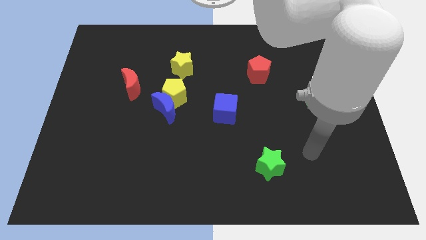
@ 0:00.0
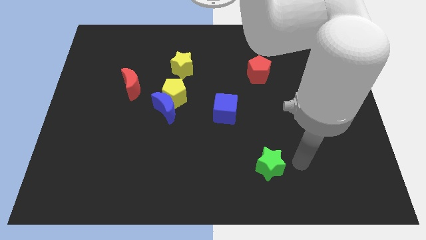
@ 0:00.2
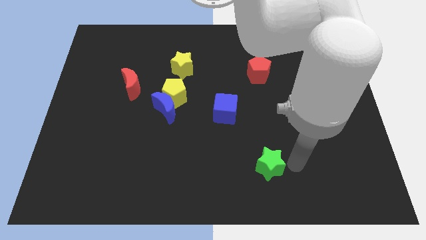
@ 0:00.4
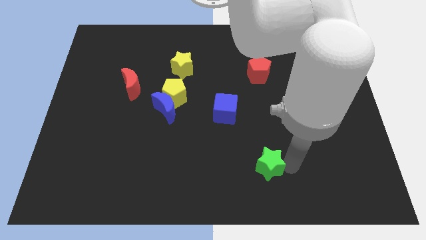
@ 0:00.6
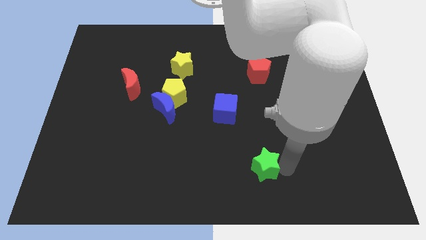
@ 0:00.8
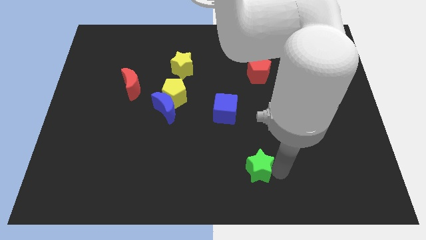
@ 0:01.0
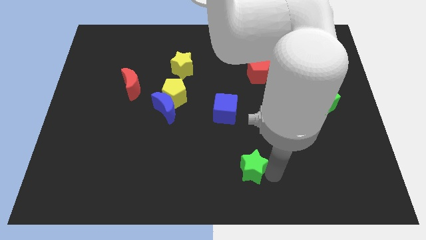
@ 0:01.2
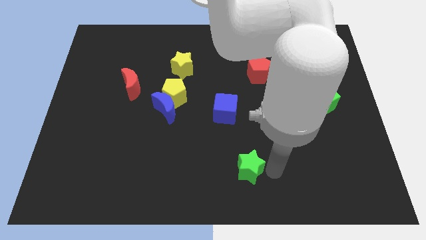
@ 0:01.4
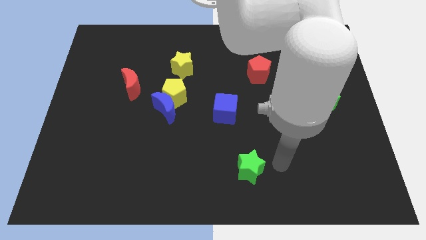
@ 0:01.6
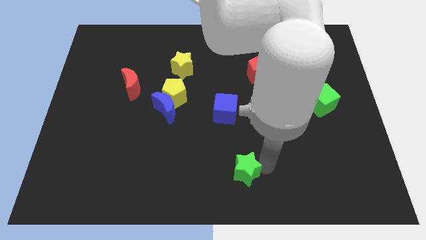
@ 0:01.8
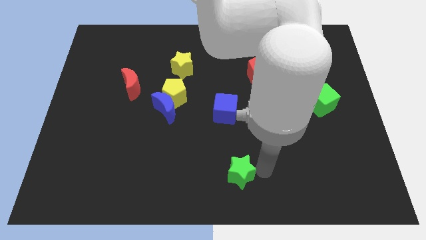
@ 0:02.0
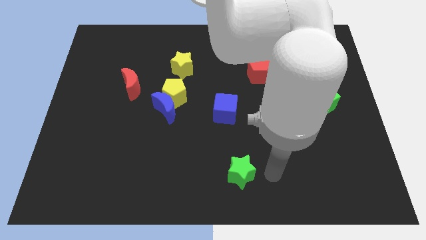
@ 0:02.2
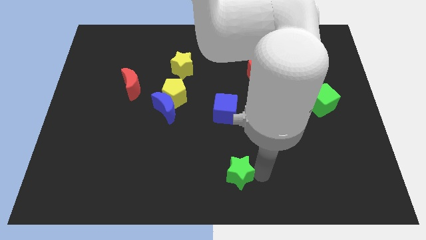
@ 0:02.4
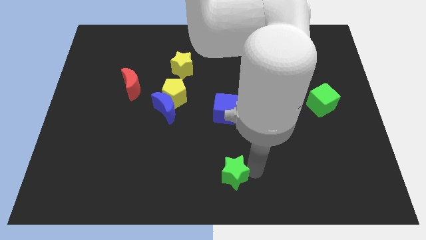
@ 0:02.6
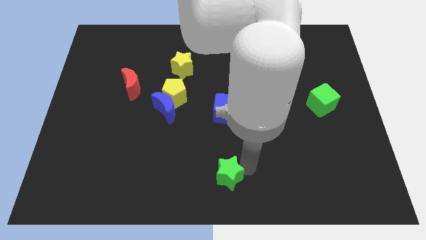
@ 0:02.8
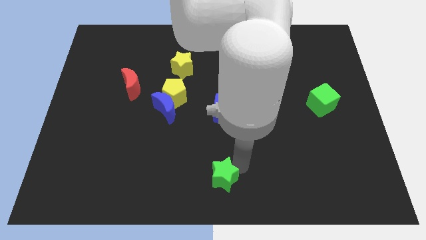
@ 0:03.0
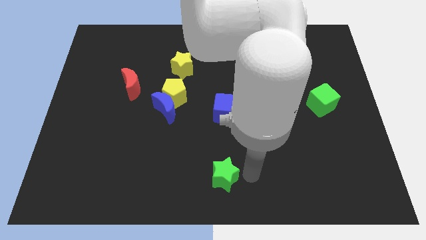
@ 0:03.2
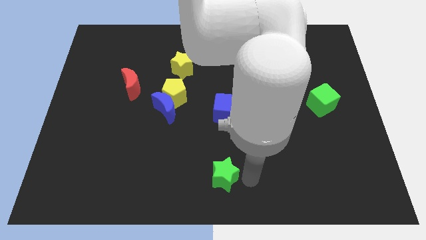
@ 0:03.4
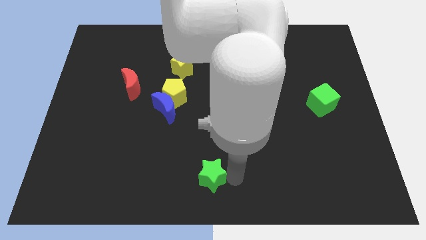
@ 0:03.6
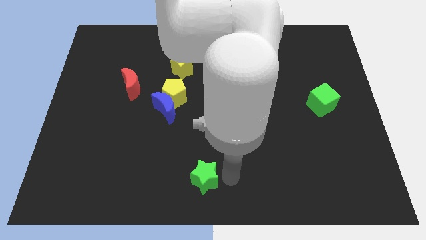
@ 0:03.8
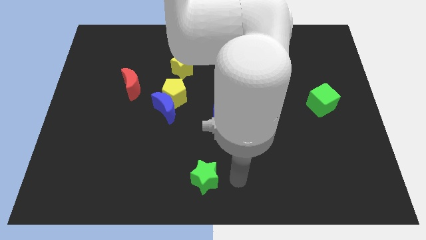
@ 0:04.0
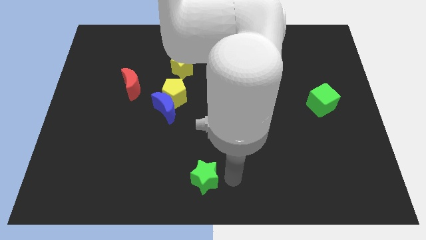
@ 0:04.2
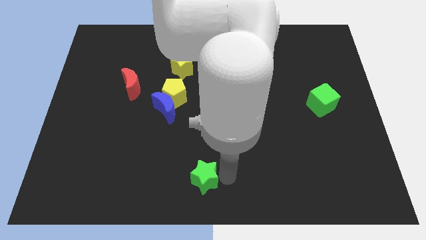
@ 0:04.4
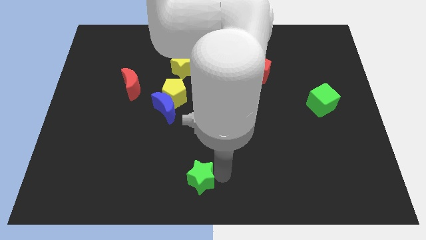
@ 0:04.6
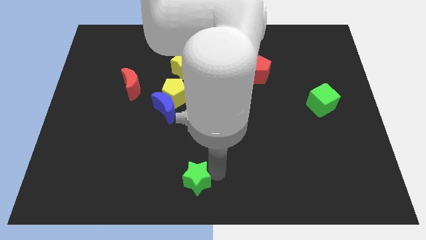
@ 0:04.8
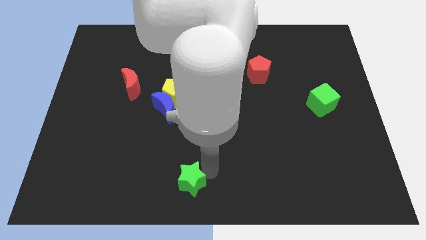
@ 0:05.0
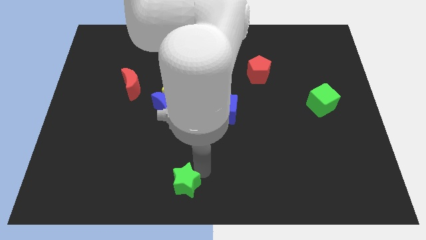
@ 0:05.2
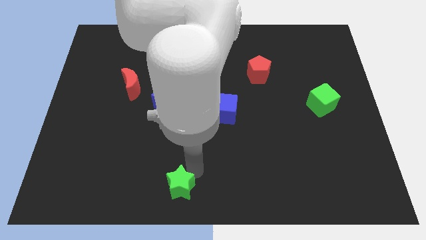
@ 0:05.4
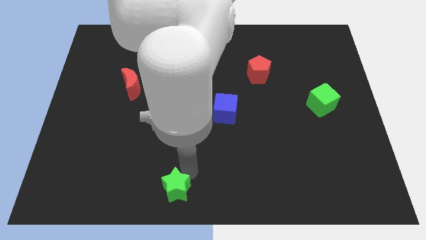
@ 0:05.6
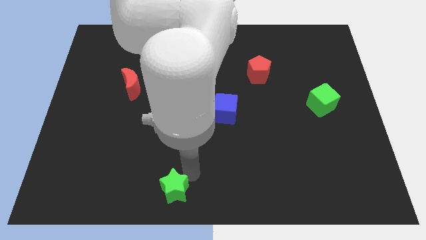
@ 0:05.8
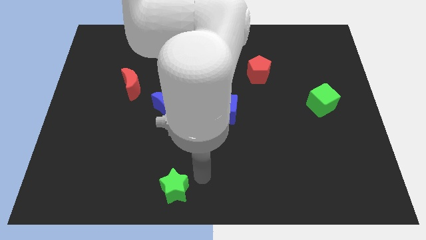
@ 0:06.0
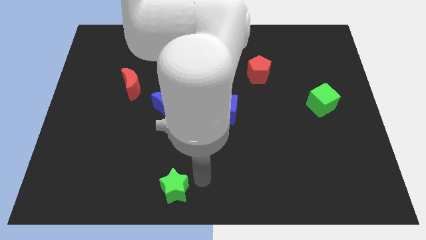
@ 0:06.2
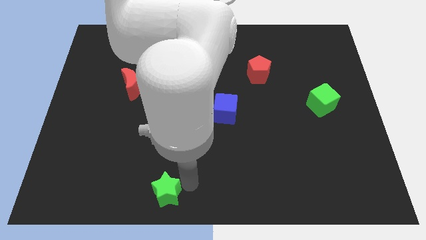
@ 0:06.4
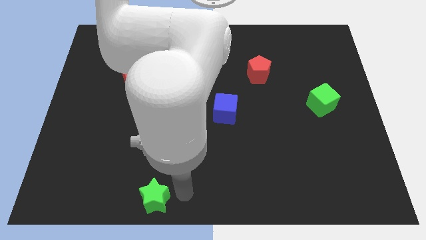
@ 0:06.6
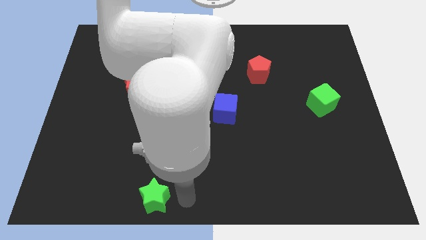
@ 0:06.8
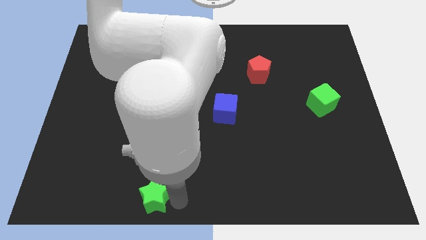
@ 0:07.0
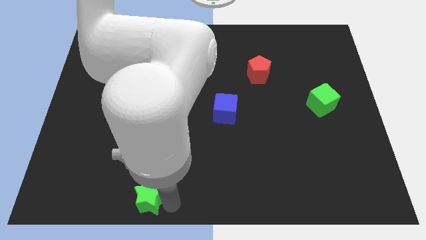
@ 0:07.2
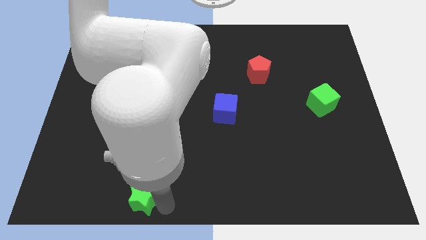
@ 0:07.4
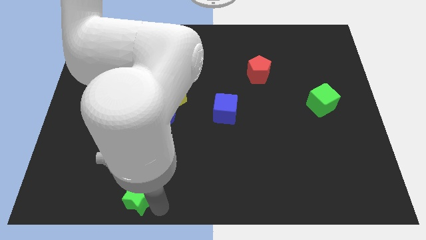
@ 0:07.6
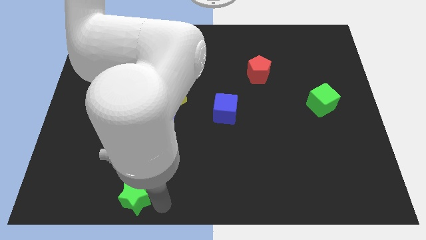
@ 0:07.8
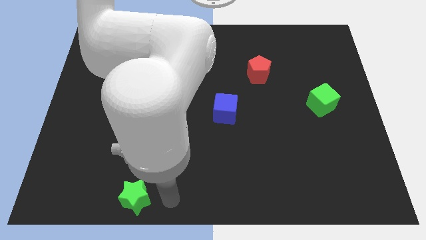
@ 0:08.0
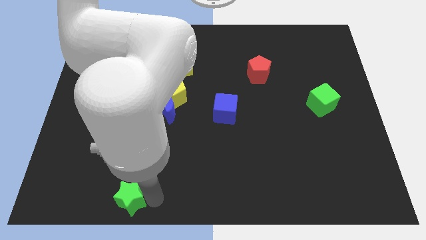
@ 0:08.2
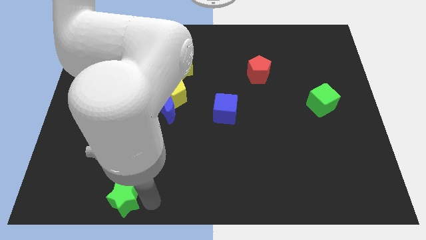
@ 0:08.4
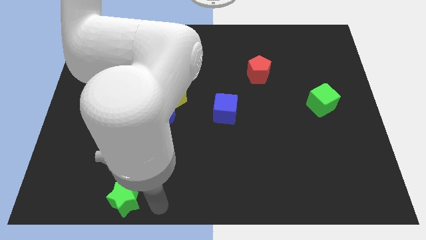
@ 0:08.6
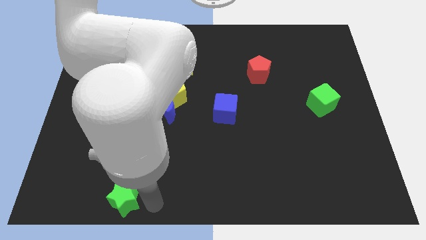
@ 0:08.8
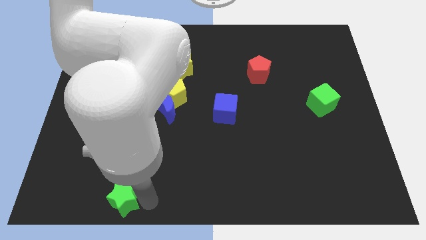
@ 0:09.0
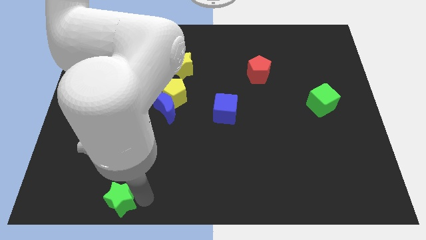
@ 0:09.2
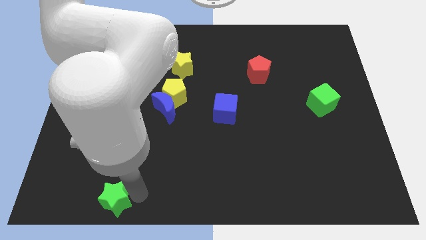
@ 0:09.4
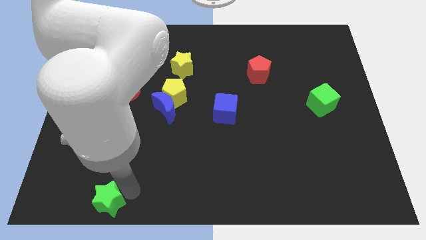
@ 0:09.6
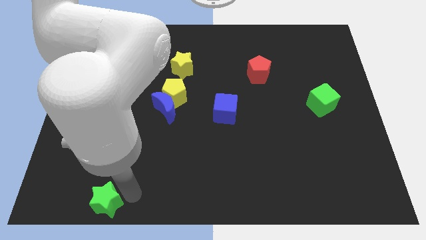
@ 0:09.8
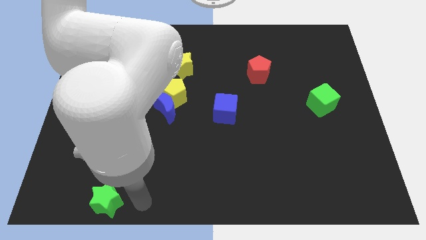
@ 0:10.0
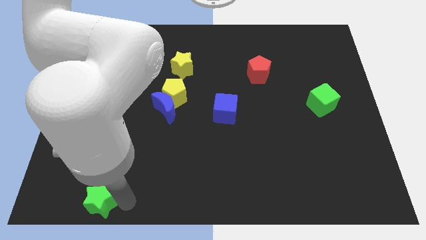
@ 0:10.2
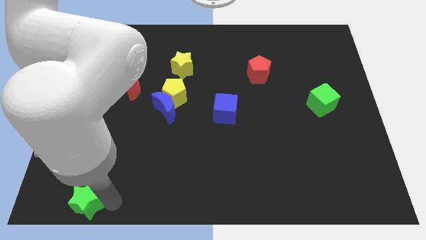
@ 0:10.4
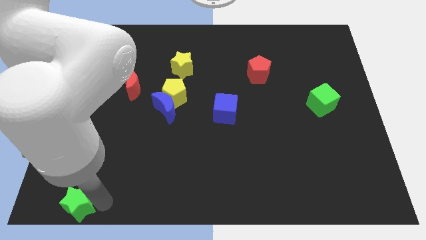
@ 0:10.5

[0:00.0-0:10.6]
move the green star to the bottom left of the board

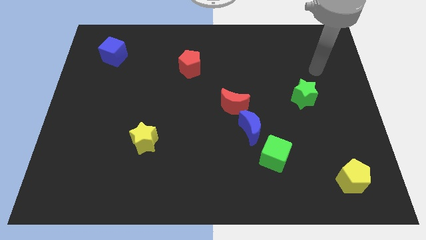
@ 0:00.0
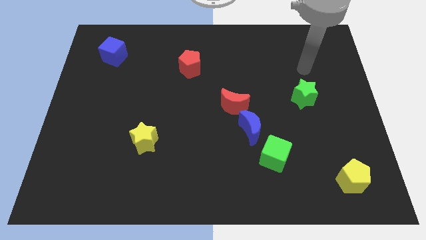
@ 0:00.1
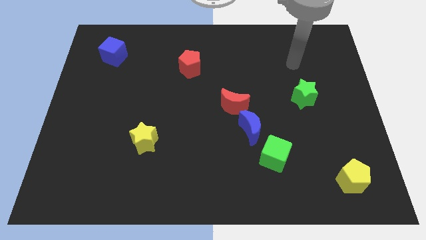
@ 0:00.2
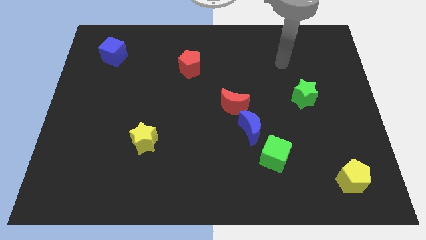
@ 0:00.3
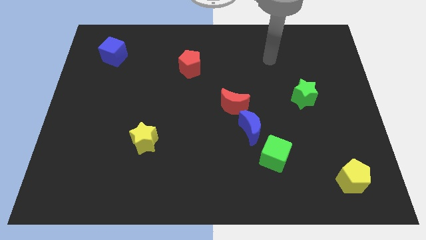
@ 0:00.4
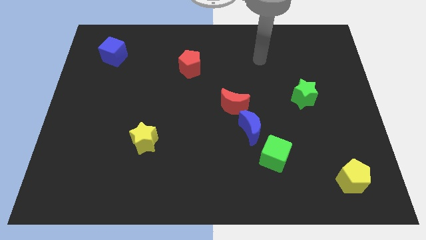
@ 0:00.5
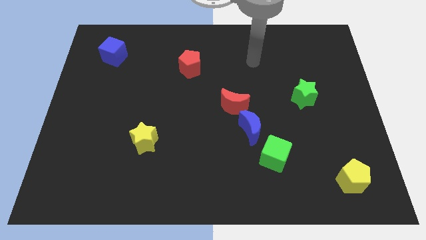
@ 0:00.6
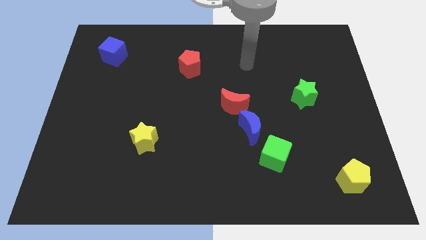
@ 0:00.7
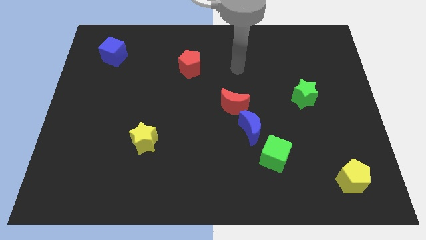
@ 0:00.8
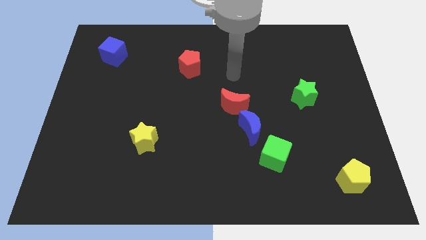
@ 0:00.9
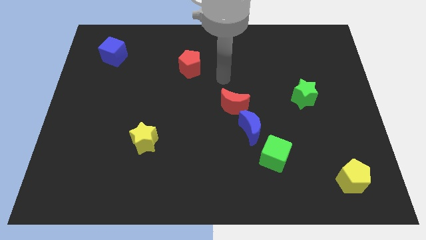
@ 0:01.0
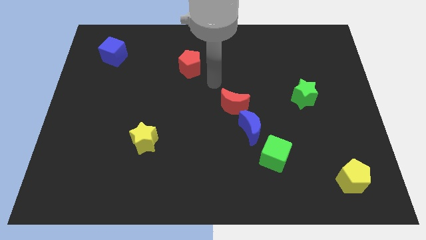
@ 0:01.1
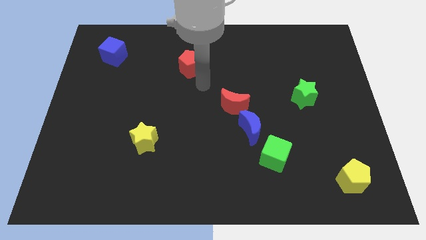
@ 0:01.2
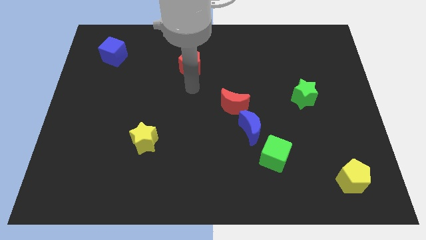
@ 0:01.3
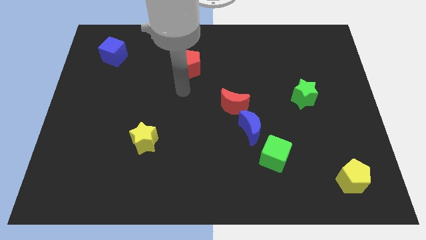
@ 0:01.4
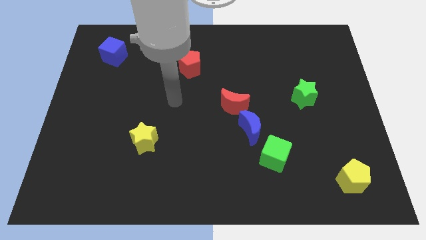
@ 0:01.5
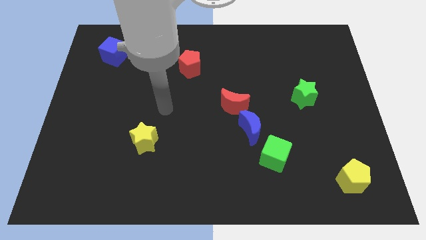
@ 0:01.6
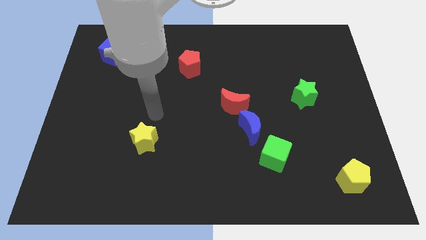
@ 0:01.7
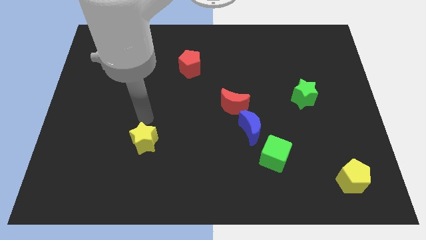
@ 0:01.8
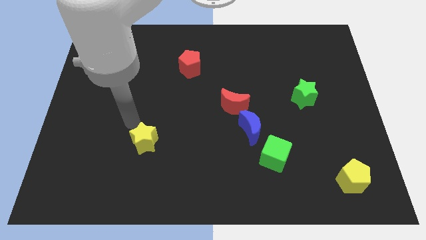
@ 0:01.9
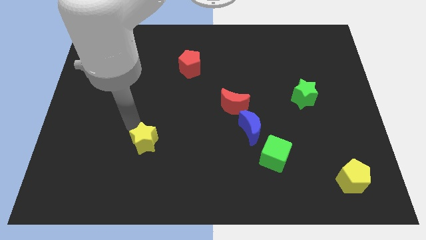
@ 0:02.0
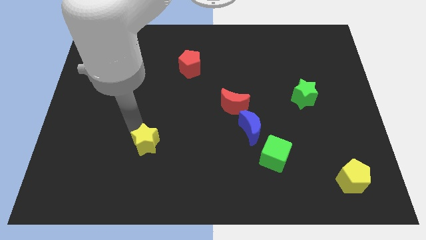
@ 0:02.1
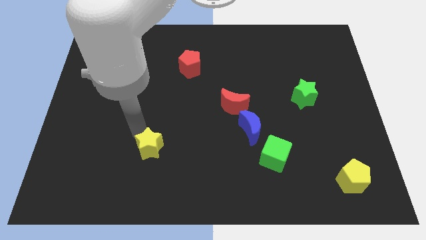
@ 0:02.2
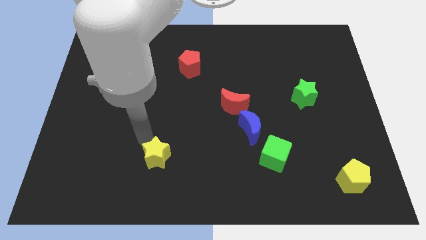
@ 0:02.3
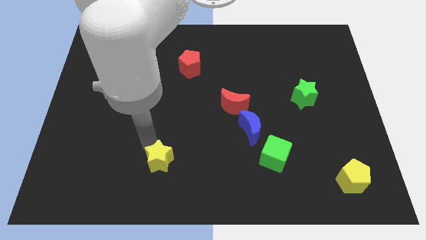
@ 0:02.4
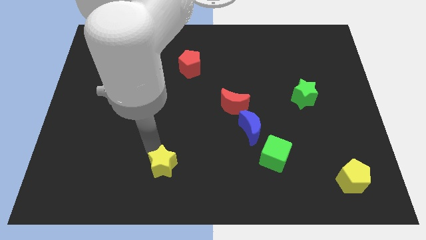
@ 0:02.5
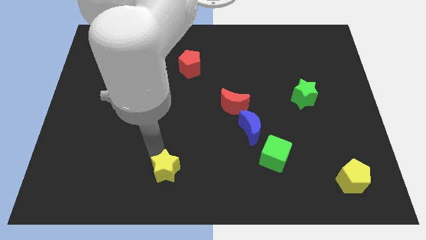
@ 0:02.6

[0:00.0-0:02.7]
put the yellow star to the bottom
